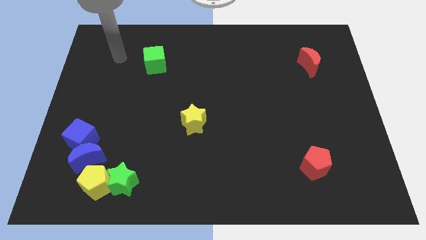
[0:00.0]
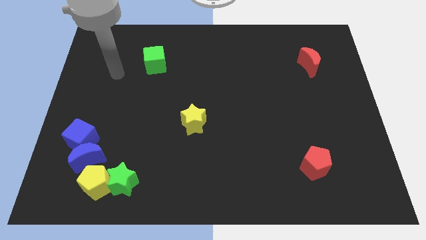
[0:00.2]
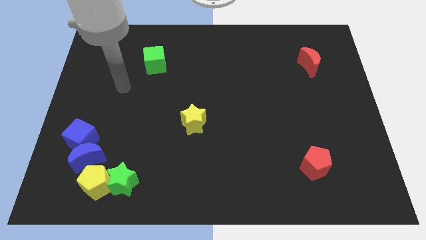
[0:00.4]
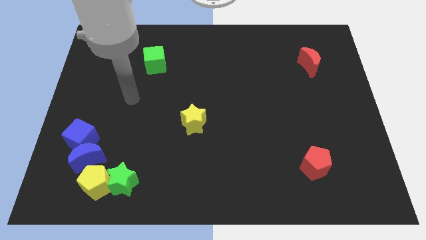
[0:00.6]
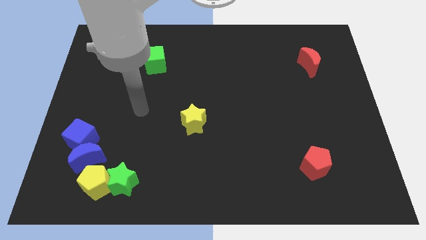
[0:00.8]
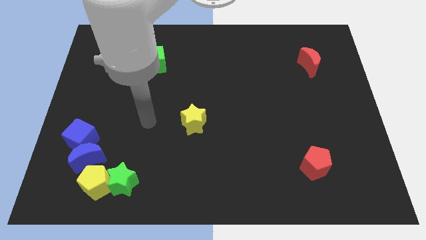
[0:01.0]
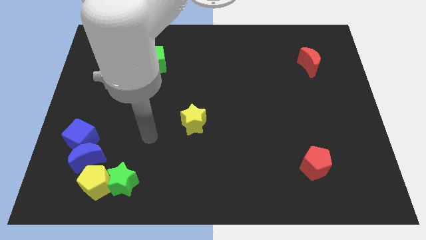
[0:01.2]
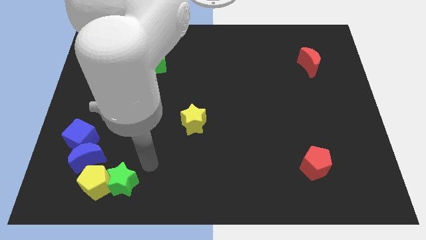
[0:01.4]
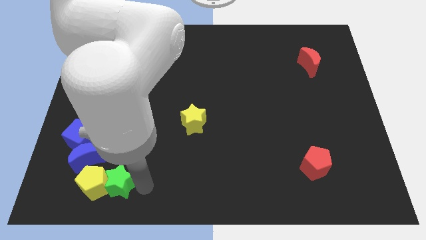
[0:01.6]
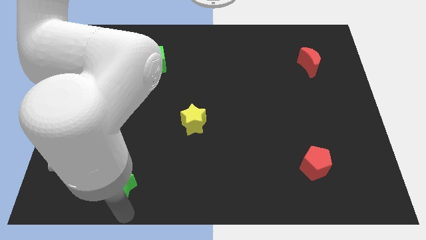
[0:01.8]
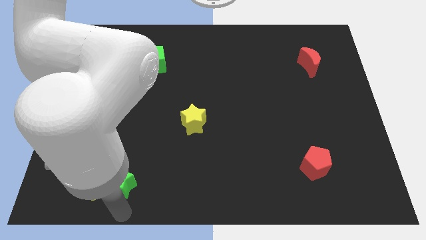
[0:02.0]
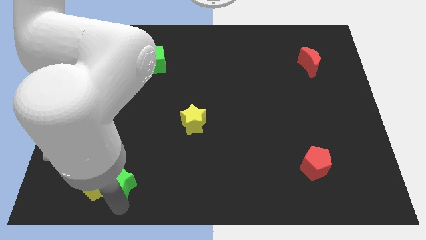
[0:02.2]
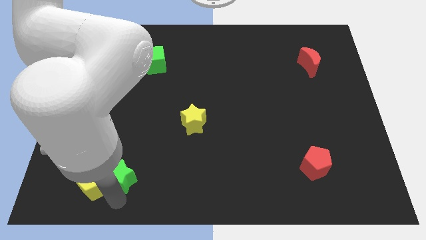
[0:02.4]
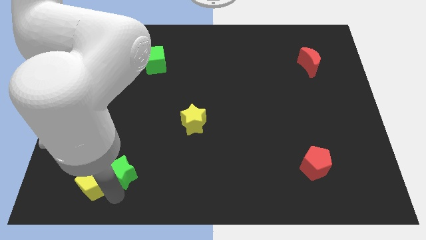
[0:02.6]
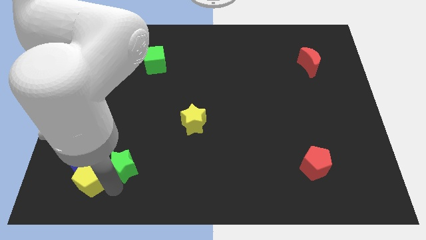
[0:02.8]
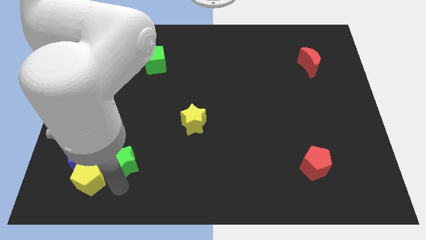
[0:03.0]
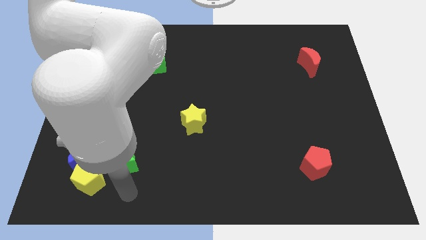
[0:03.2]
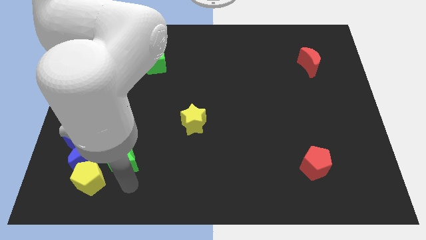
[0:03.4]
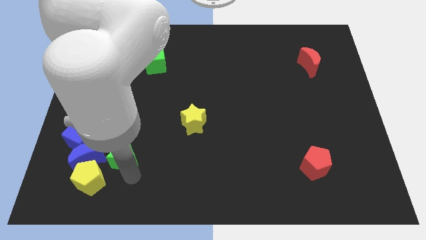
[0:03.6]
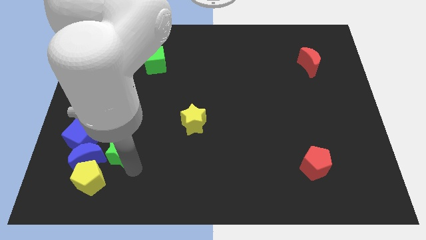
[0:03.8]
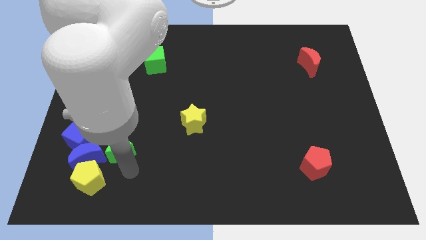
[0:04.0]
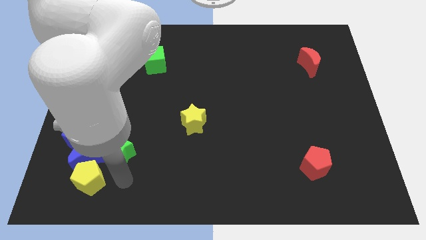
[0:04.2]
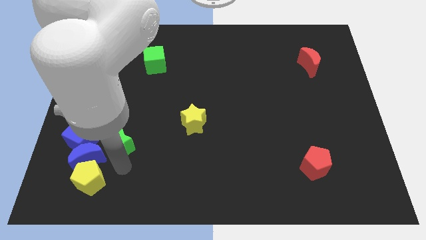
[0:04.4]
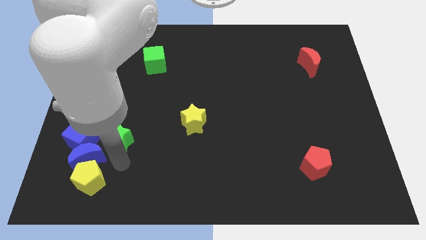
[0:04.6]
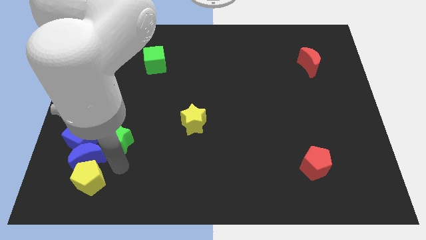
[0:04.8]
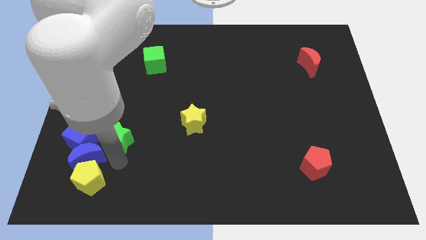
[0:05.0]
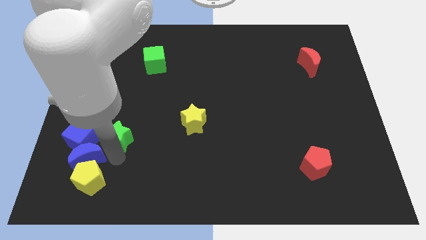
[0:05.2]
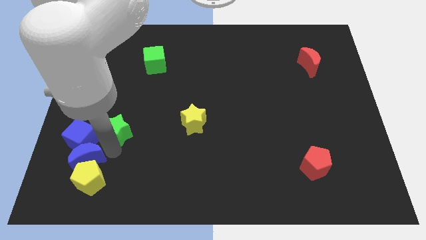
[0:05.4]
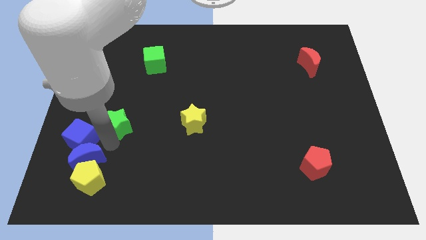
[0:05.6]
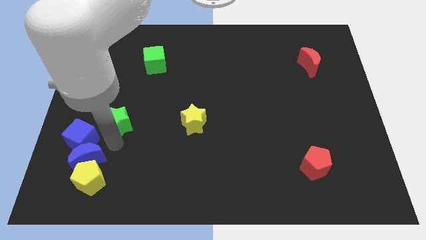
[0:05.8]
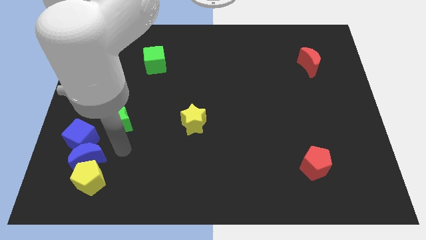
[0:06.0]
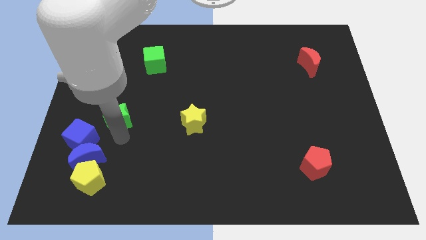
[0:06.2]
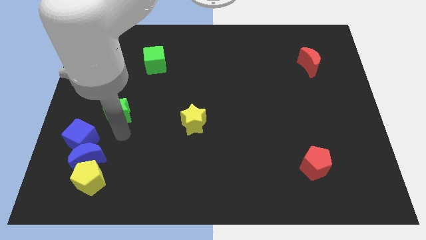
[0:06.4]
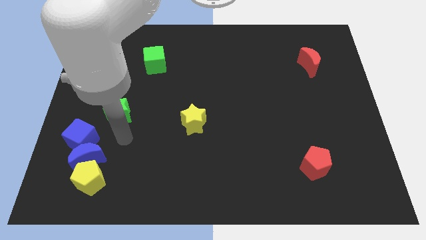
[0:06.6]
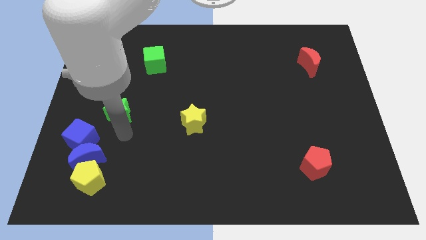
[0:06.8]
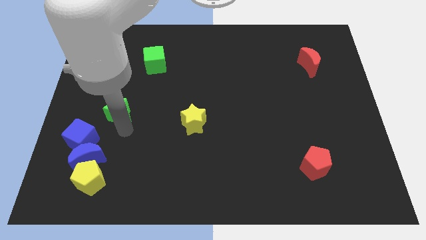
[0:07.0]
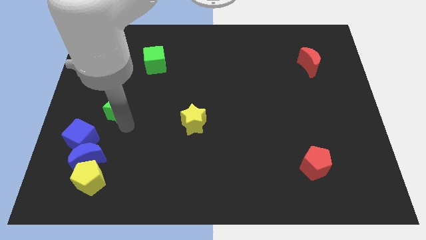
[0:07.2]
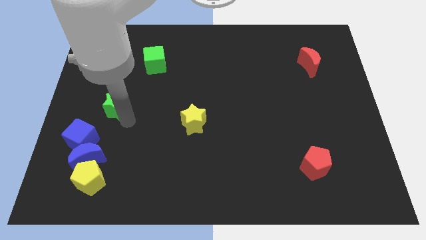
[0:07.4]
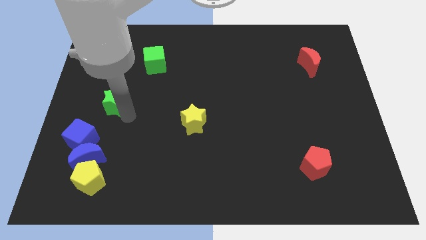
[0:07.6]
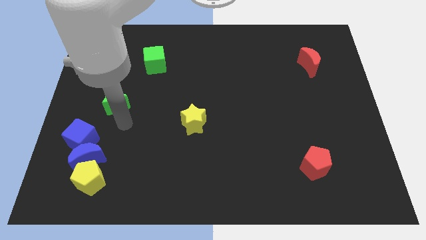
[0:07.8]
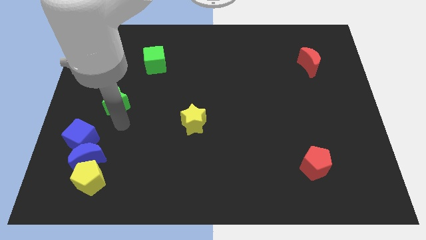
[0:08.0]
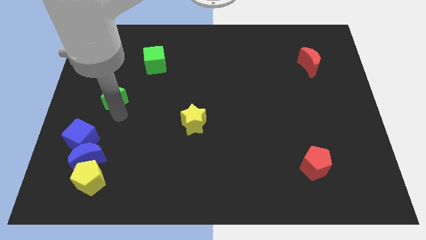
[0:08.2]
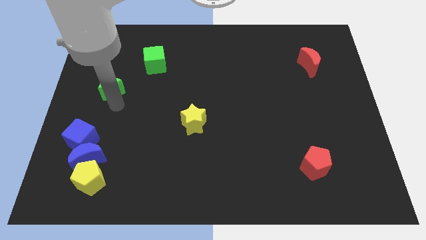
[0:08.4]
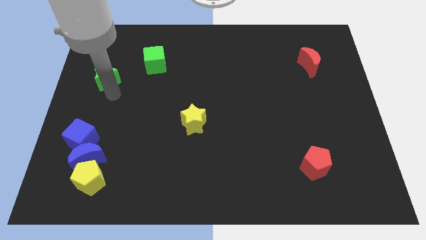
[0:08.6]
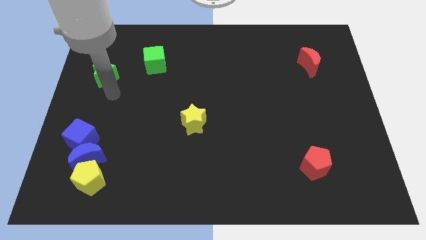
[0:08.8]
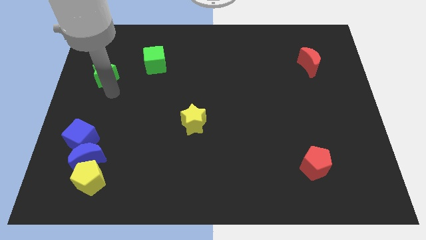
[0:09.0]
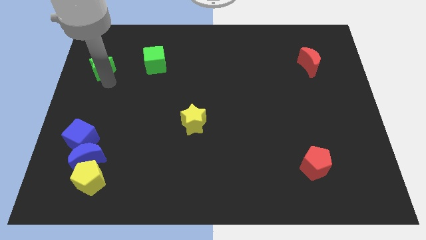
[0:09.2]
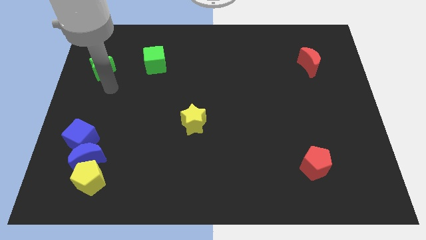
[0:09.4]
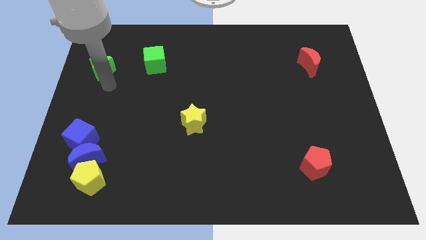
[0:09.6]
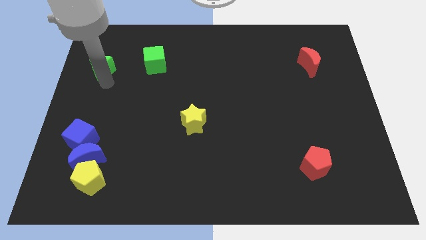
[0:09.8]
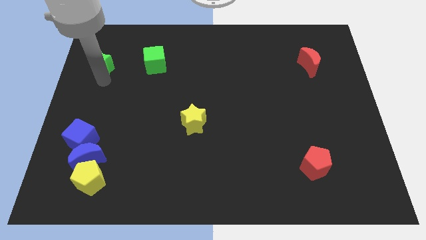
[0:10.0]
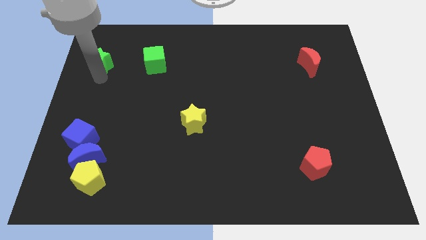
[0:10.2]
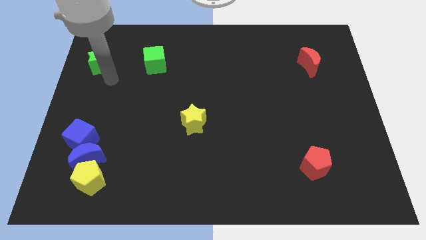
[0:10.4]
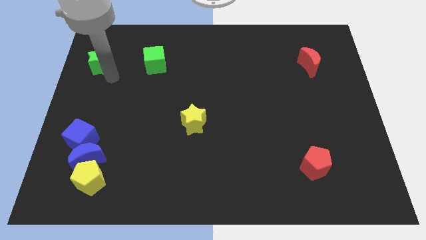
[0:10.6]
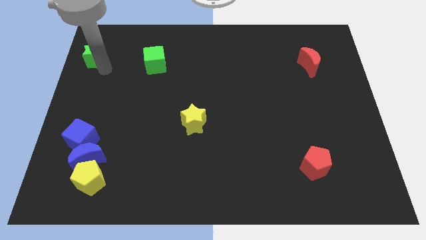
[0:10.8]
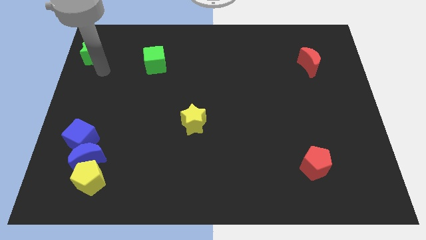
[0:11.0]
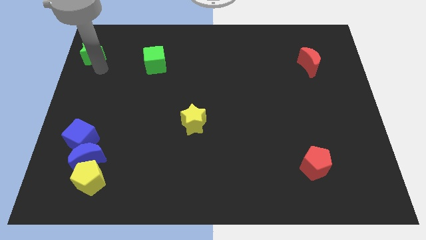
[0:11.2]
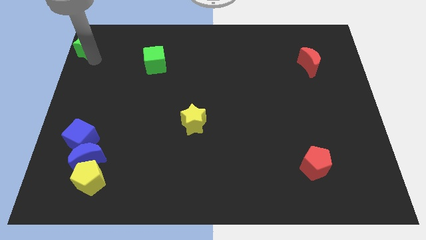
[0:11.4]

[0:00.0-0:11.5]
slide the green star to the top left corner

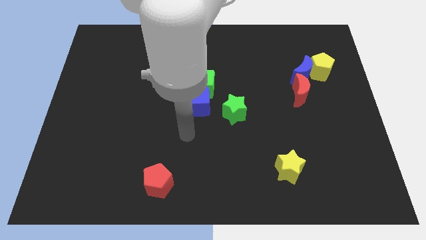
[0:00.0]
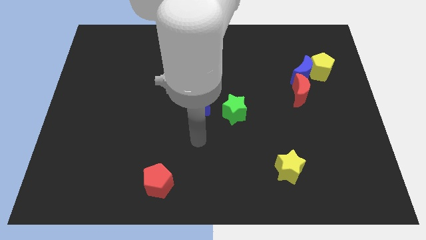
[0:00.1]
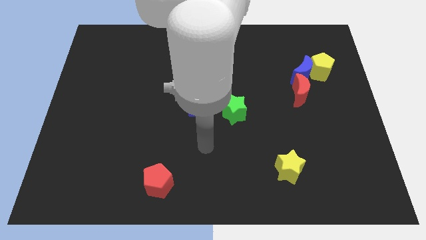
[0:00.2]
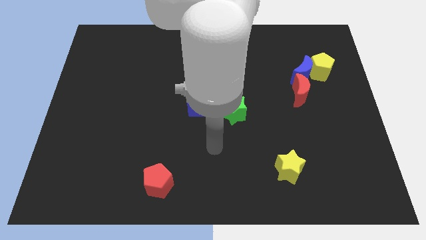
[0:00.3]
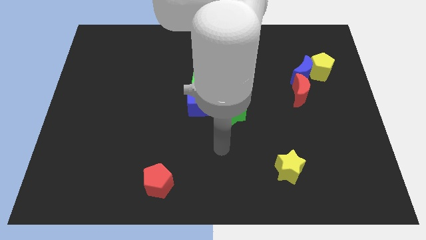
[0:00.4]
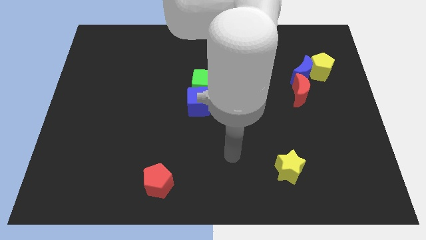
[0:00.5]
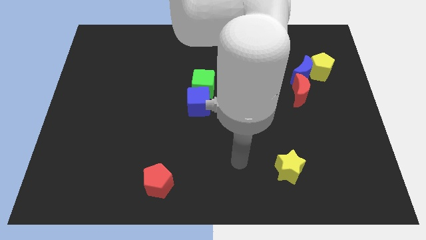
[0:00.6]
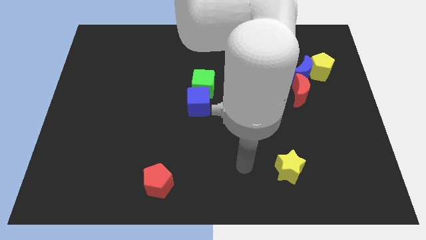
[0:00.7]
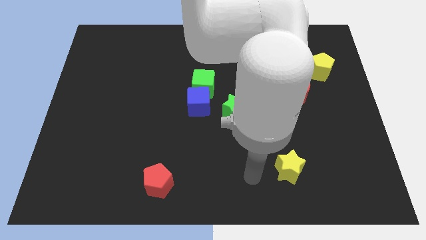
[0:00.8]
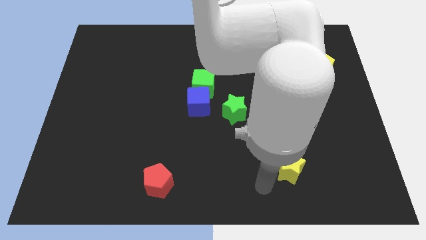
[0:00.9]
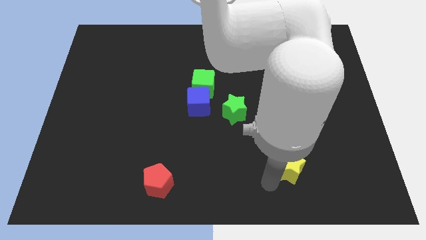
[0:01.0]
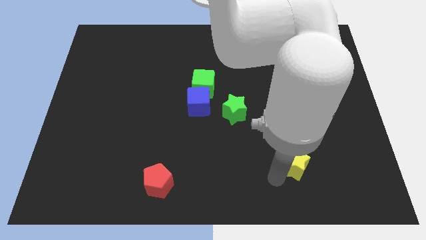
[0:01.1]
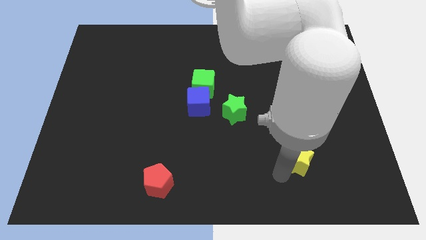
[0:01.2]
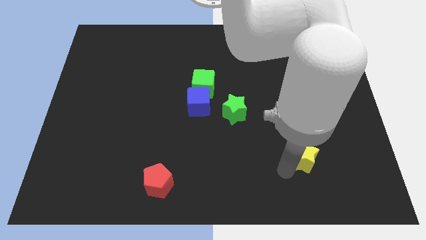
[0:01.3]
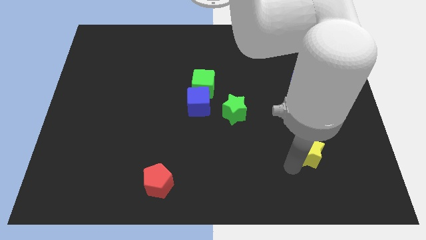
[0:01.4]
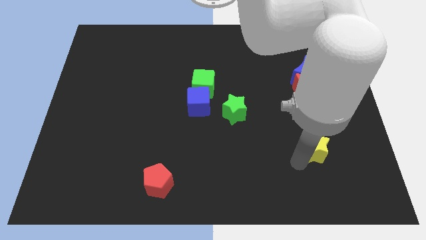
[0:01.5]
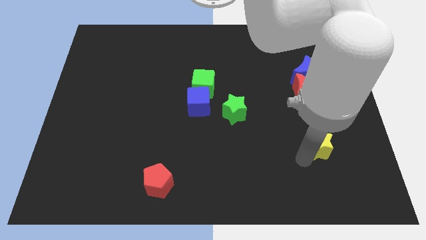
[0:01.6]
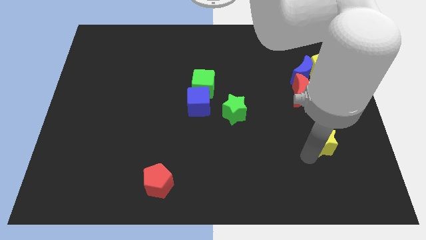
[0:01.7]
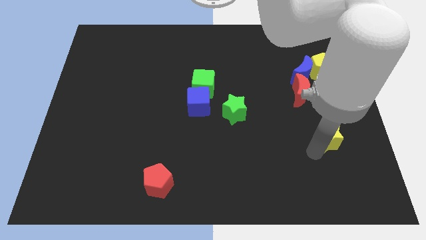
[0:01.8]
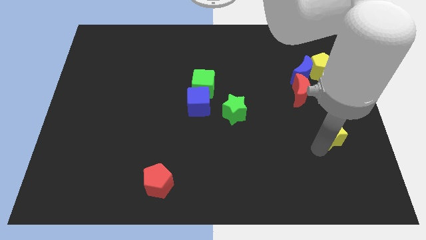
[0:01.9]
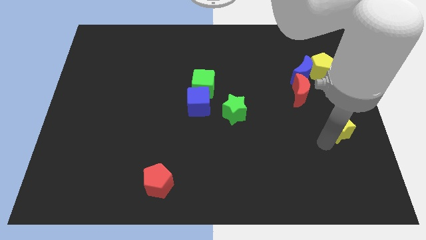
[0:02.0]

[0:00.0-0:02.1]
slide the yellow star to the right side of the board
